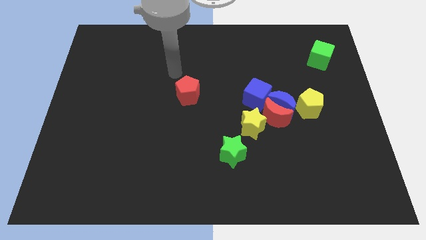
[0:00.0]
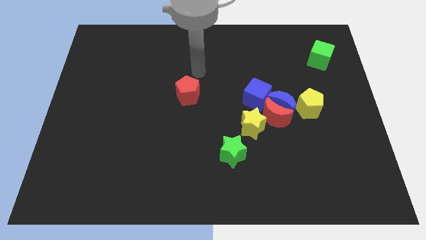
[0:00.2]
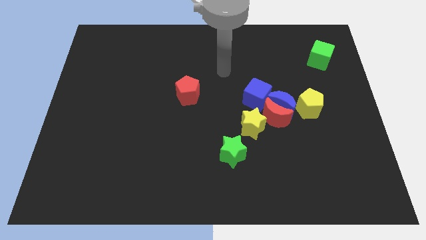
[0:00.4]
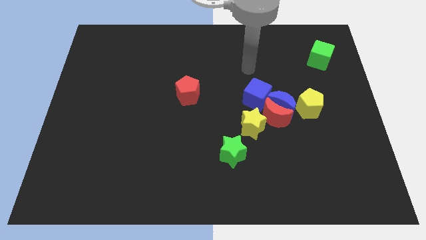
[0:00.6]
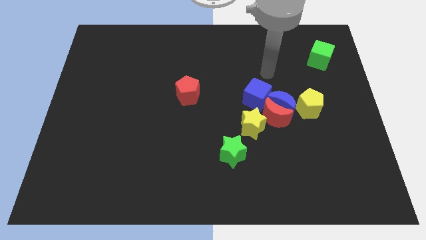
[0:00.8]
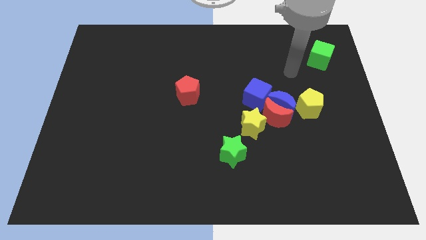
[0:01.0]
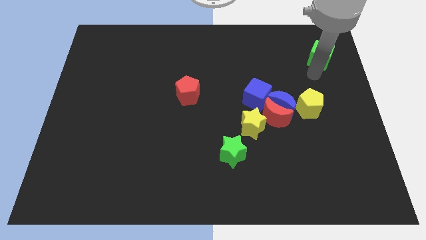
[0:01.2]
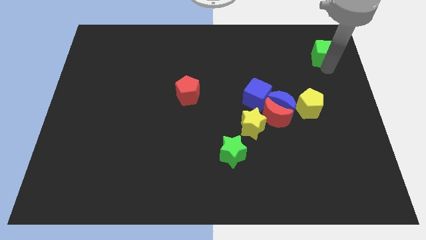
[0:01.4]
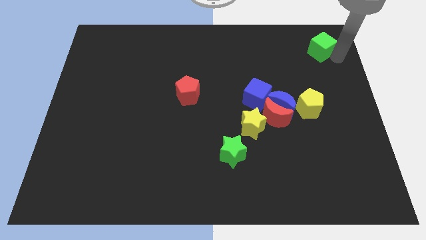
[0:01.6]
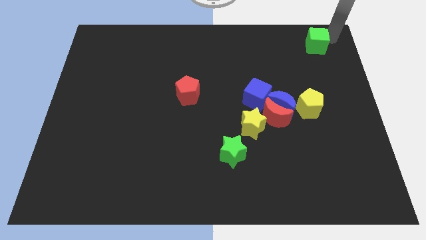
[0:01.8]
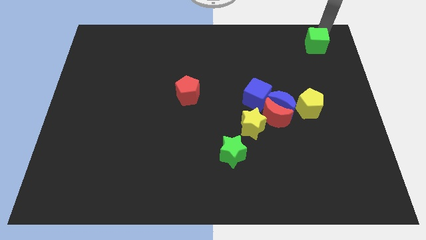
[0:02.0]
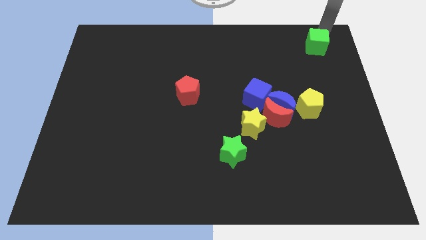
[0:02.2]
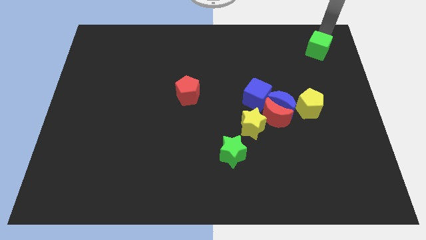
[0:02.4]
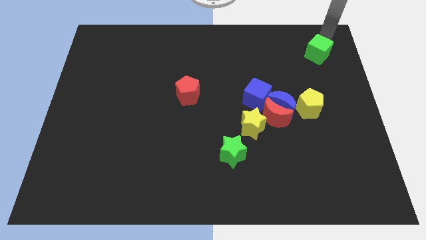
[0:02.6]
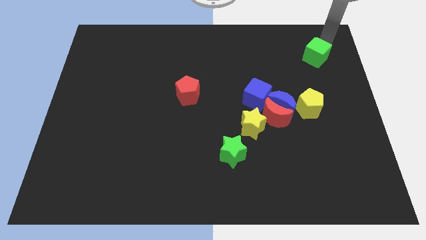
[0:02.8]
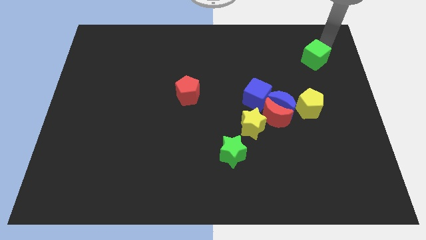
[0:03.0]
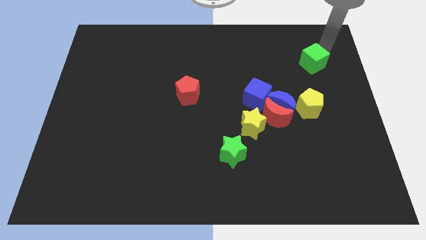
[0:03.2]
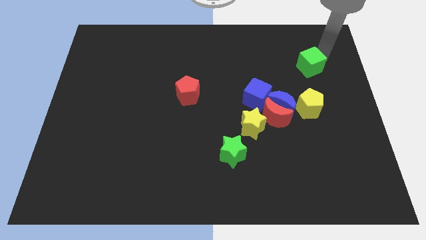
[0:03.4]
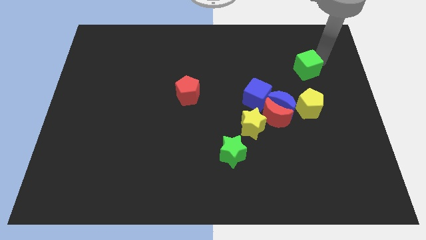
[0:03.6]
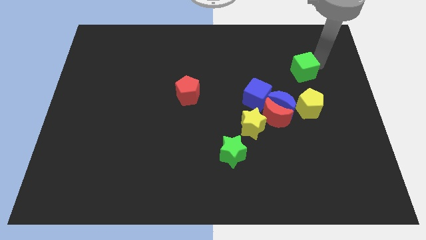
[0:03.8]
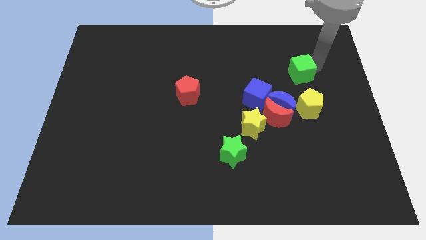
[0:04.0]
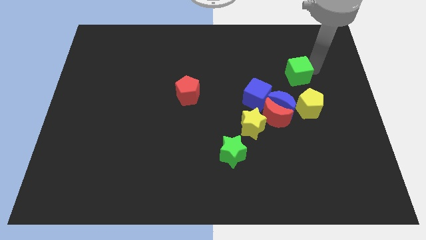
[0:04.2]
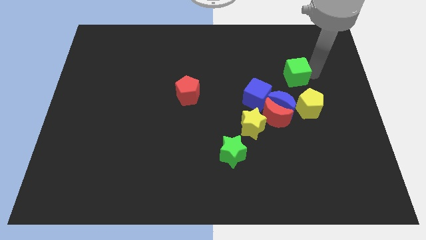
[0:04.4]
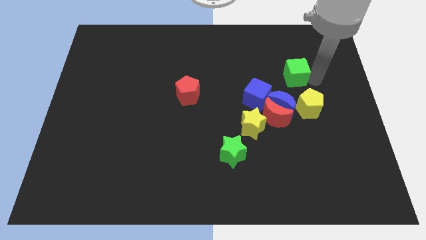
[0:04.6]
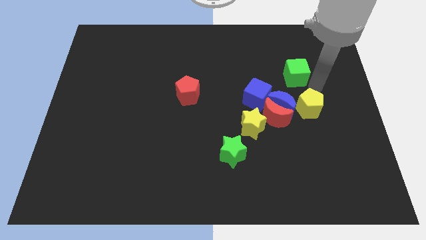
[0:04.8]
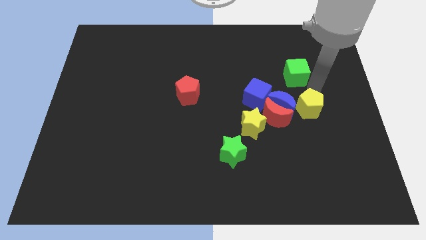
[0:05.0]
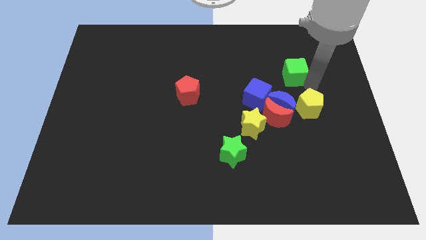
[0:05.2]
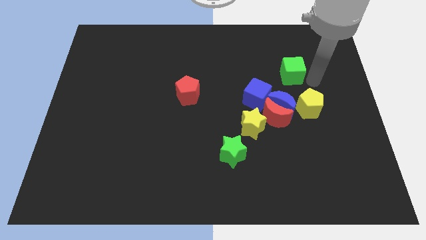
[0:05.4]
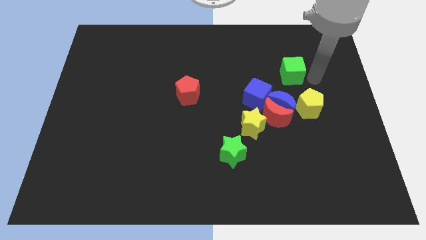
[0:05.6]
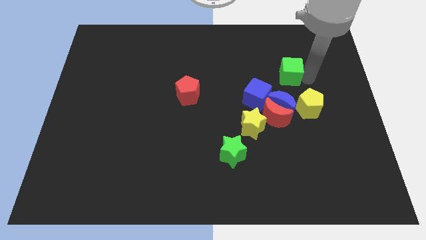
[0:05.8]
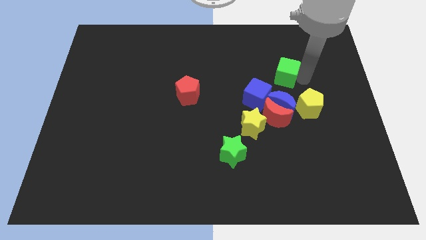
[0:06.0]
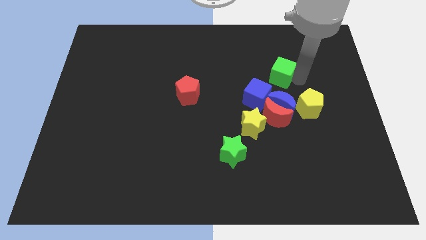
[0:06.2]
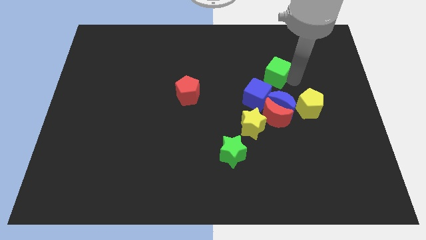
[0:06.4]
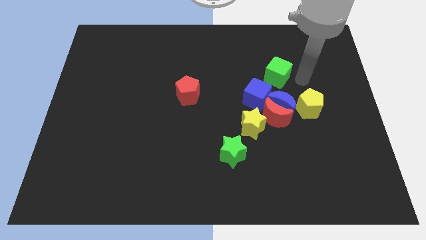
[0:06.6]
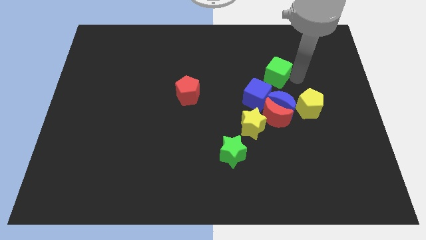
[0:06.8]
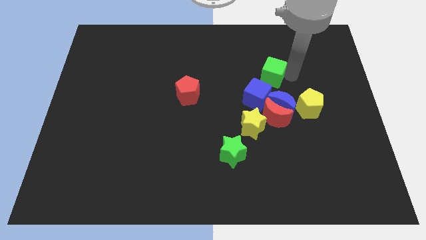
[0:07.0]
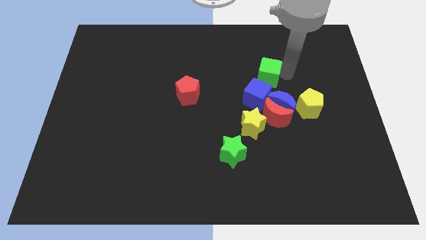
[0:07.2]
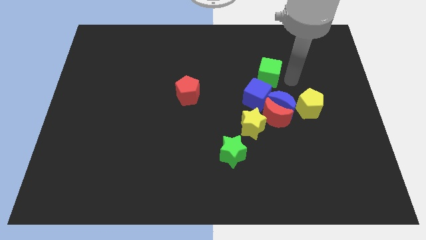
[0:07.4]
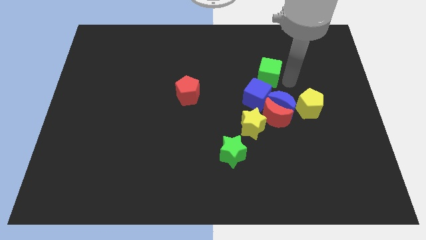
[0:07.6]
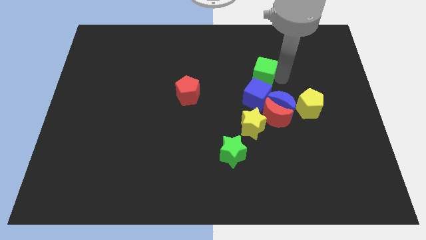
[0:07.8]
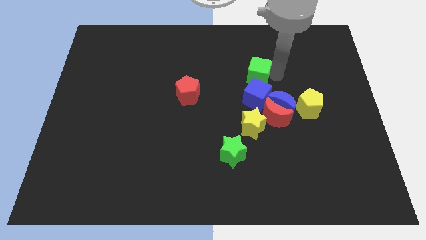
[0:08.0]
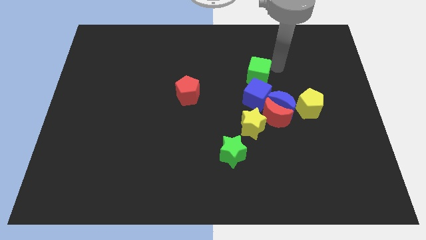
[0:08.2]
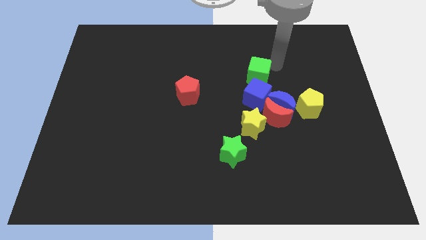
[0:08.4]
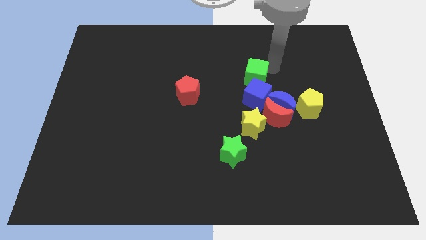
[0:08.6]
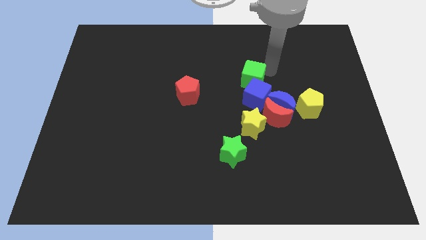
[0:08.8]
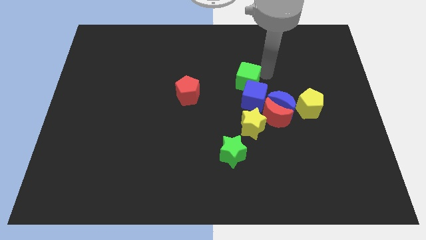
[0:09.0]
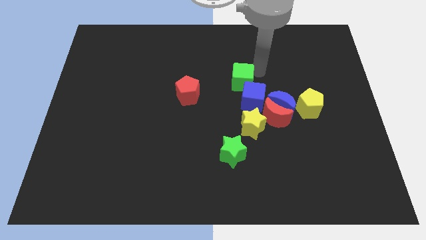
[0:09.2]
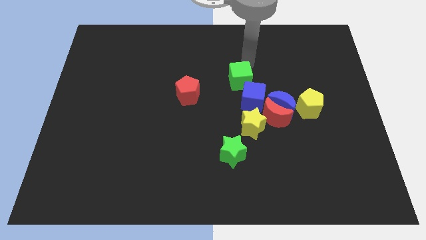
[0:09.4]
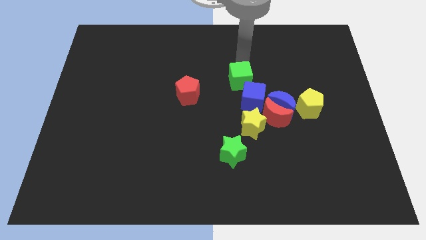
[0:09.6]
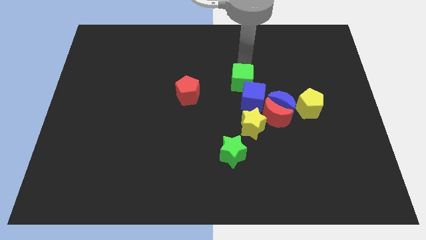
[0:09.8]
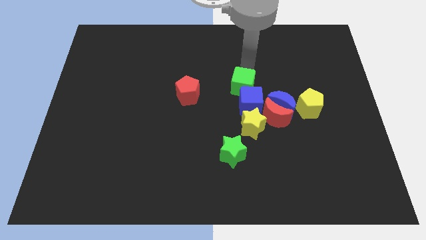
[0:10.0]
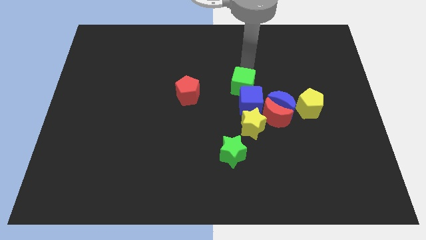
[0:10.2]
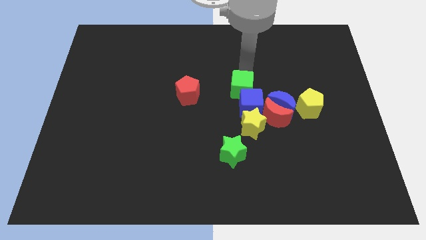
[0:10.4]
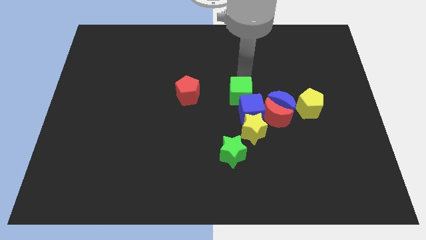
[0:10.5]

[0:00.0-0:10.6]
put the green cube to the left side of the blue moon

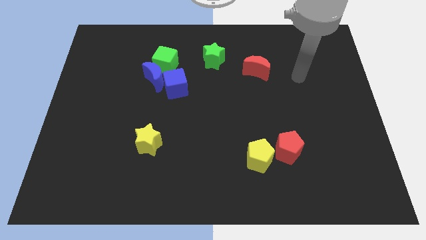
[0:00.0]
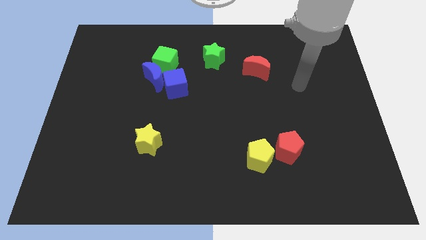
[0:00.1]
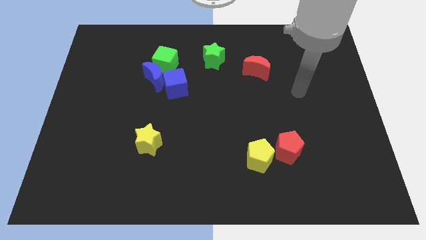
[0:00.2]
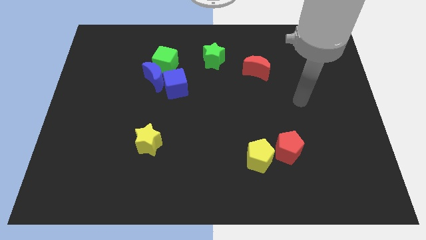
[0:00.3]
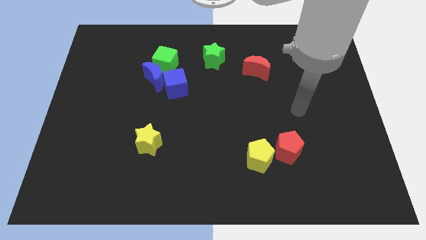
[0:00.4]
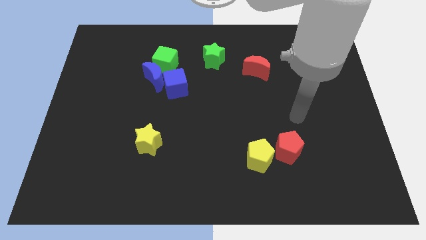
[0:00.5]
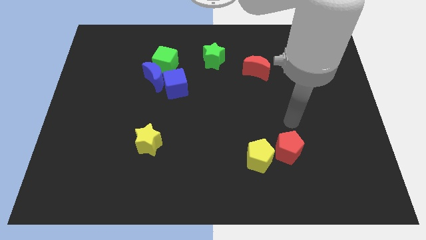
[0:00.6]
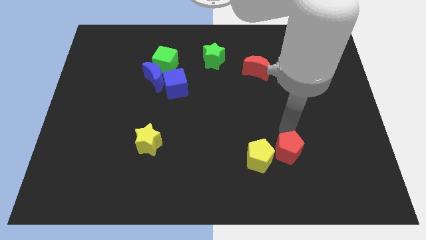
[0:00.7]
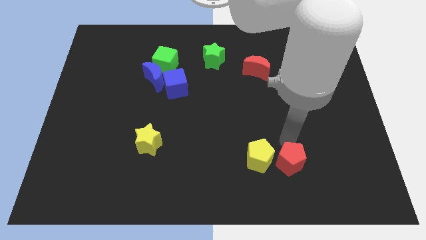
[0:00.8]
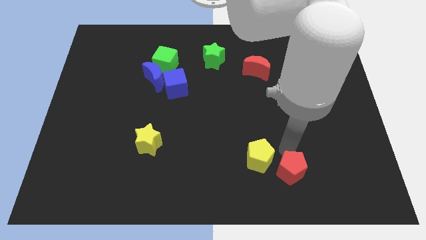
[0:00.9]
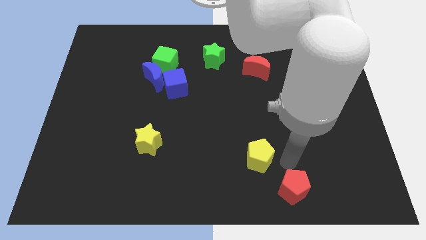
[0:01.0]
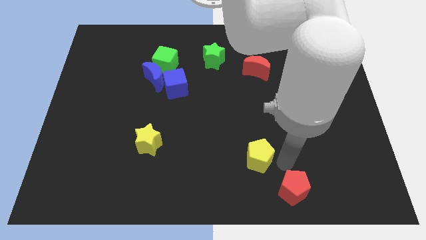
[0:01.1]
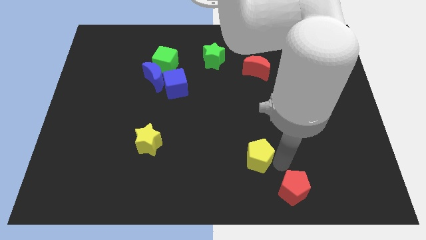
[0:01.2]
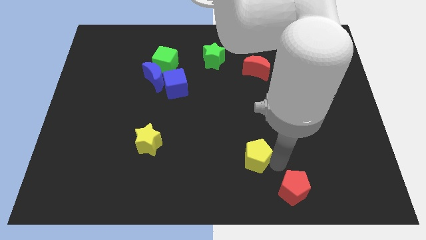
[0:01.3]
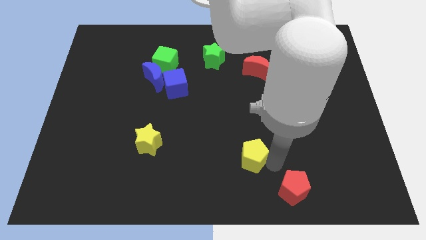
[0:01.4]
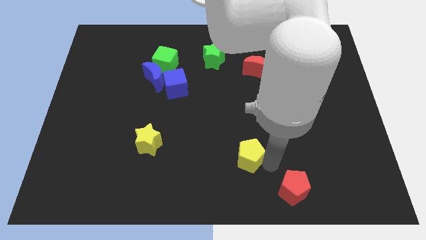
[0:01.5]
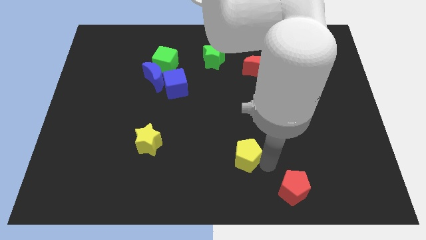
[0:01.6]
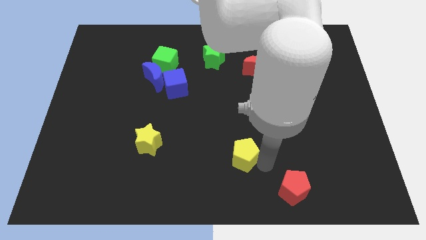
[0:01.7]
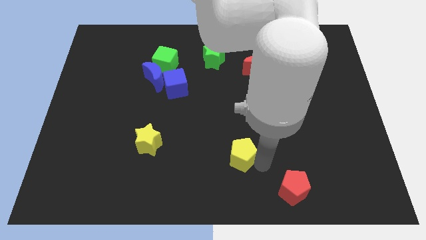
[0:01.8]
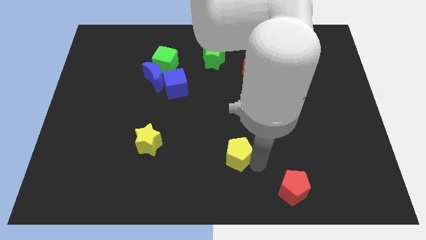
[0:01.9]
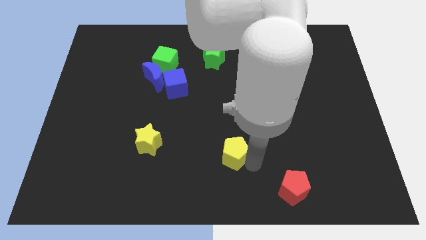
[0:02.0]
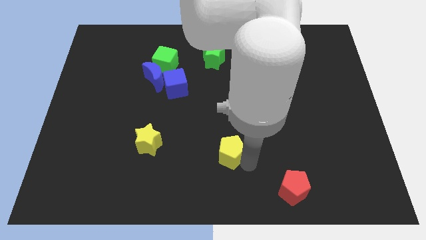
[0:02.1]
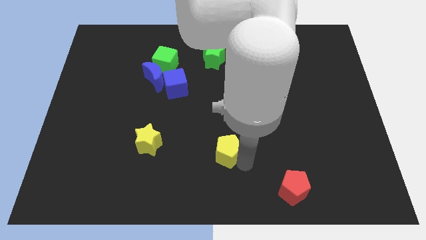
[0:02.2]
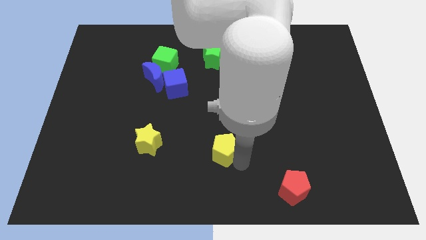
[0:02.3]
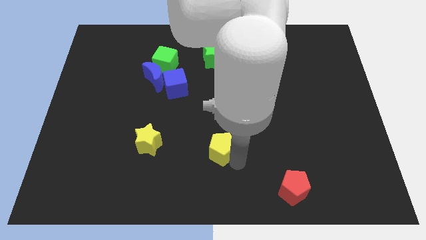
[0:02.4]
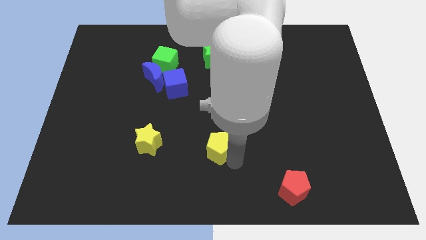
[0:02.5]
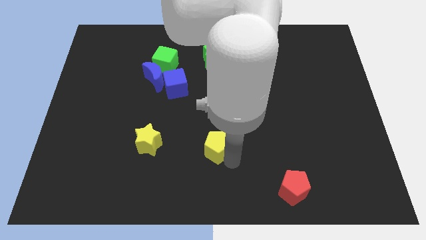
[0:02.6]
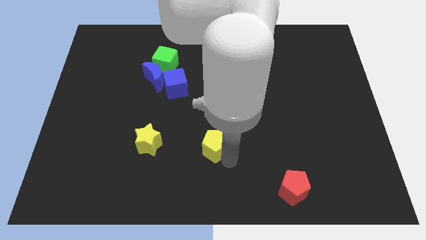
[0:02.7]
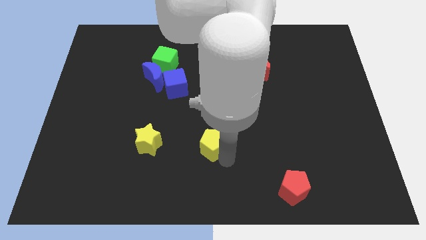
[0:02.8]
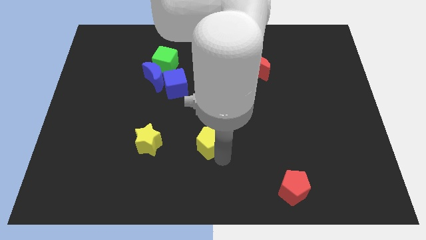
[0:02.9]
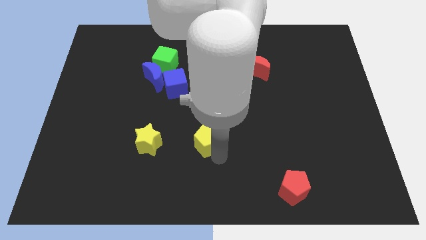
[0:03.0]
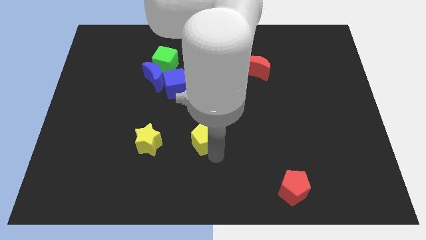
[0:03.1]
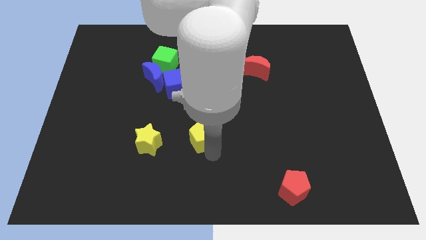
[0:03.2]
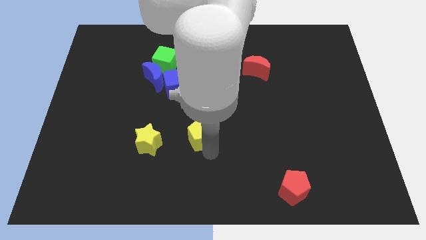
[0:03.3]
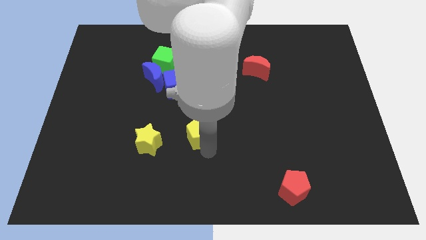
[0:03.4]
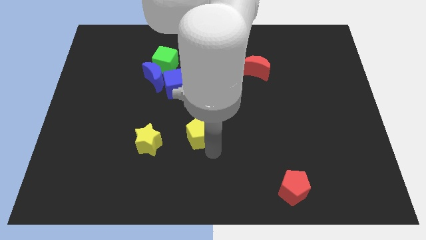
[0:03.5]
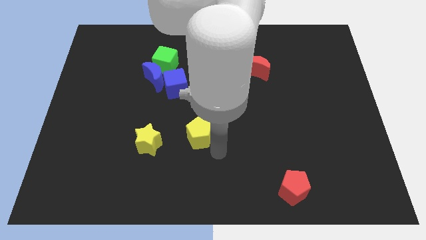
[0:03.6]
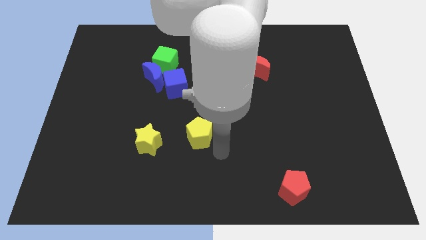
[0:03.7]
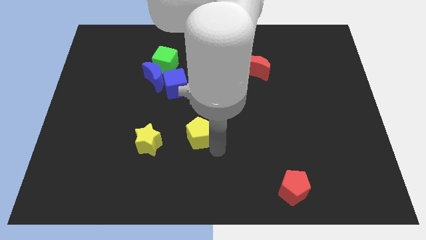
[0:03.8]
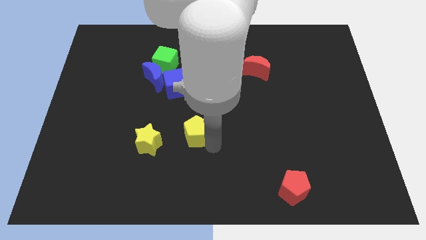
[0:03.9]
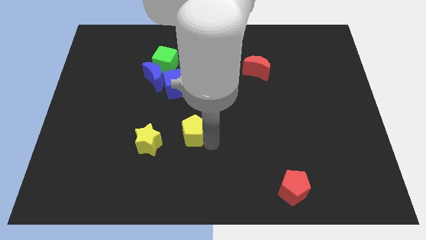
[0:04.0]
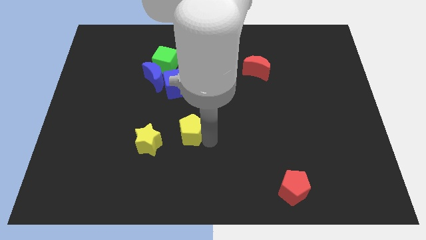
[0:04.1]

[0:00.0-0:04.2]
move the yellow pentagon to the bottom of the blue cube
